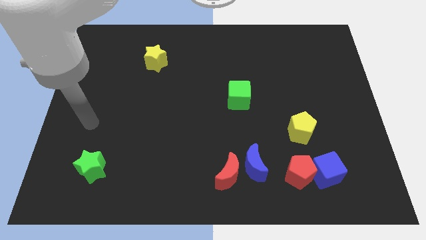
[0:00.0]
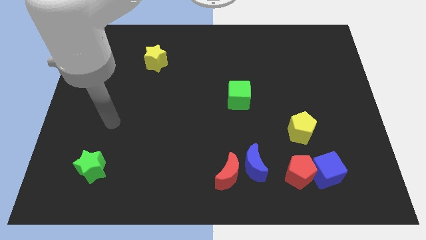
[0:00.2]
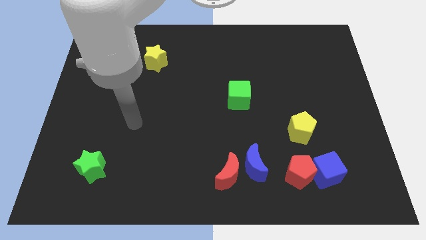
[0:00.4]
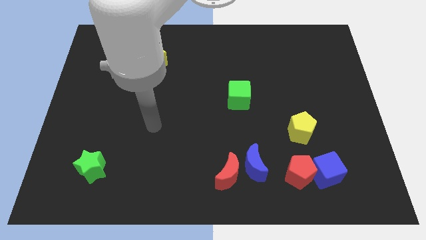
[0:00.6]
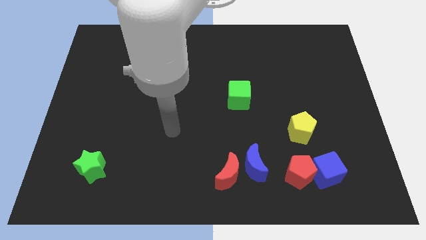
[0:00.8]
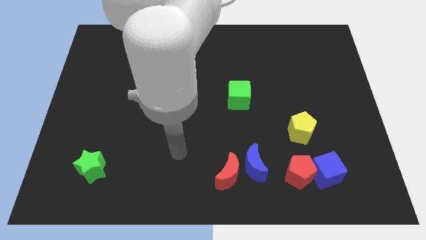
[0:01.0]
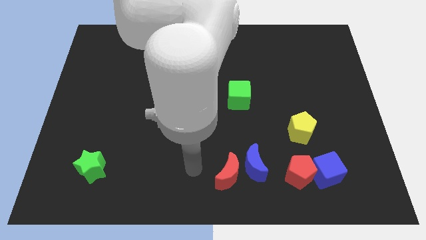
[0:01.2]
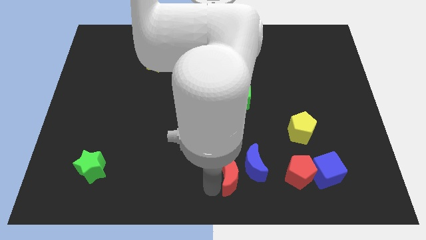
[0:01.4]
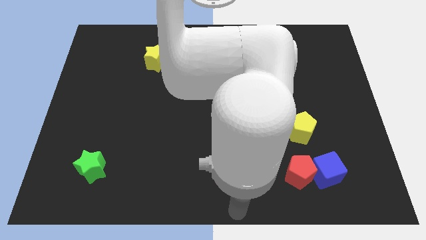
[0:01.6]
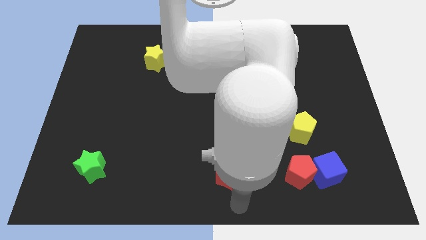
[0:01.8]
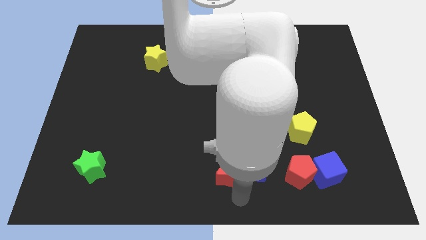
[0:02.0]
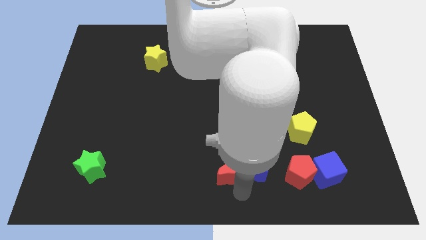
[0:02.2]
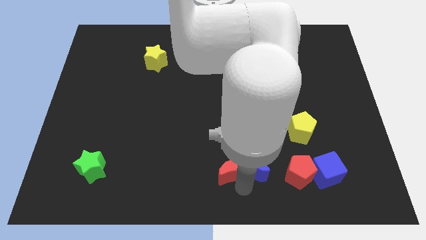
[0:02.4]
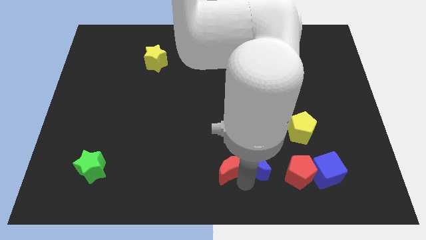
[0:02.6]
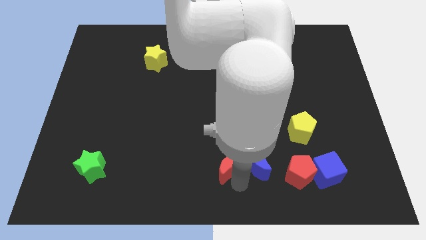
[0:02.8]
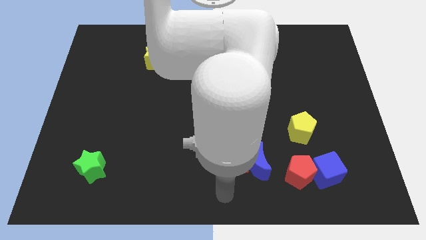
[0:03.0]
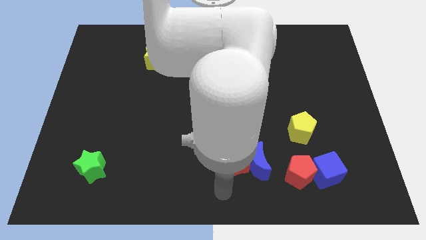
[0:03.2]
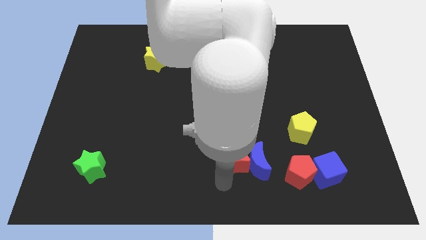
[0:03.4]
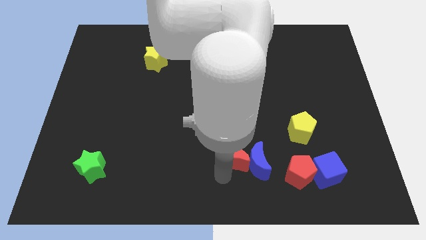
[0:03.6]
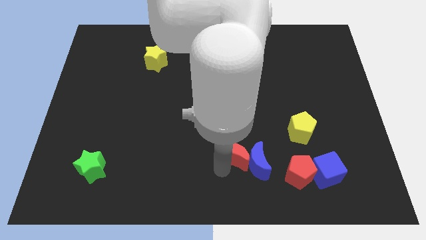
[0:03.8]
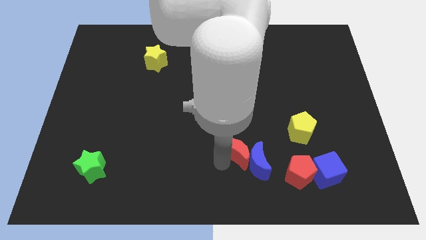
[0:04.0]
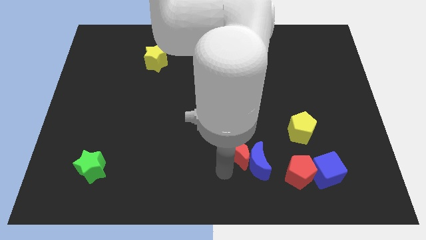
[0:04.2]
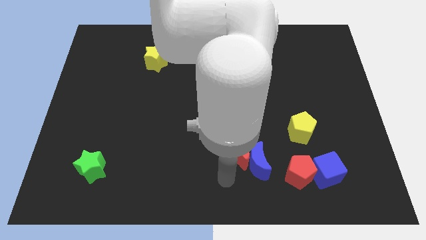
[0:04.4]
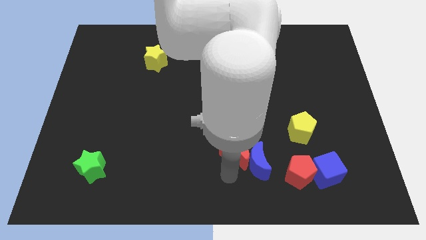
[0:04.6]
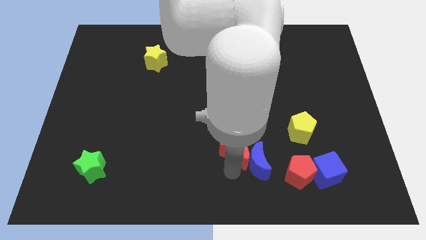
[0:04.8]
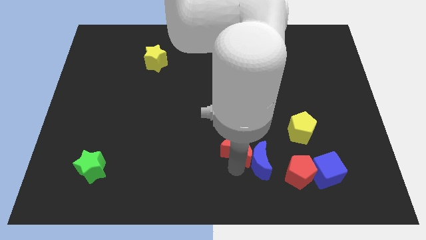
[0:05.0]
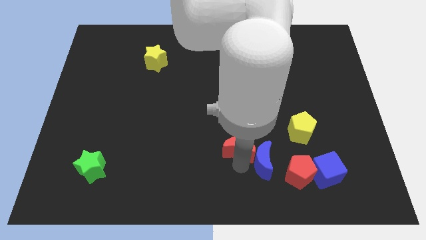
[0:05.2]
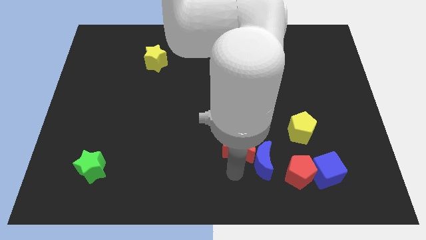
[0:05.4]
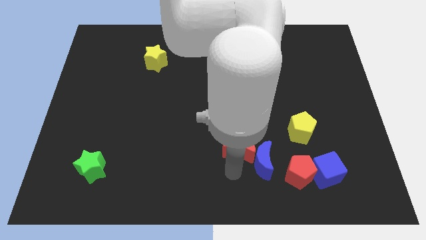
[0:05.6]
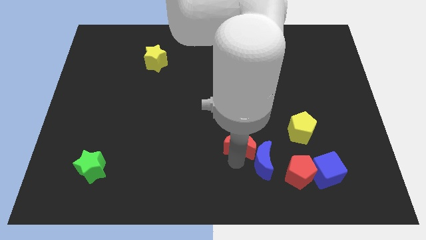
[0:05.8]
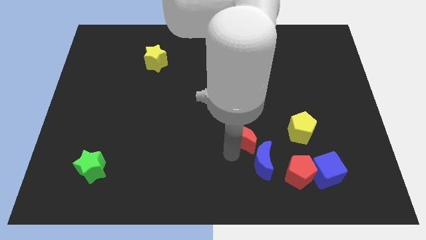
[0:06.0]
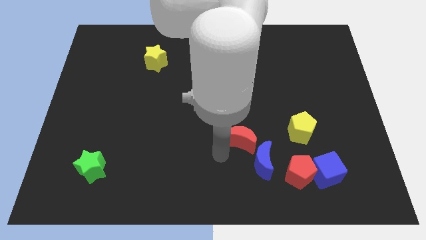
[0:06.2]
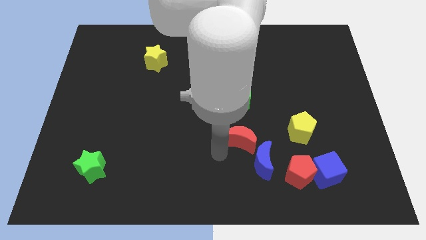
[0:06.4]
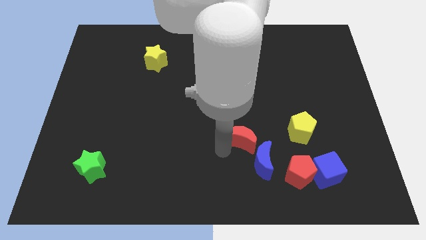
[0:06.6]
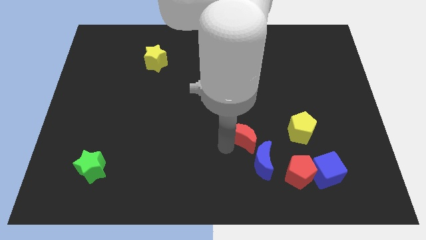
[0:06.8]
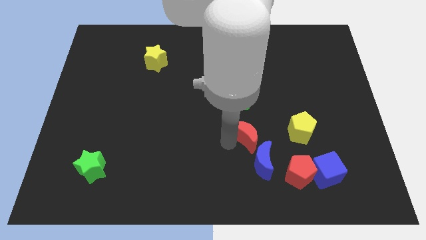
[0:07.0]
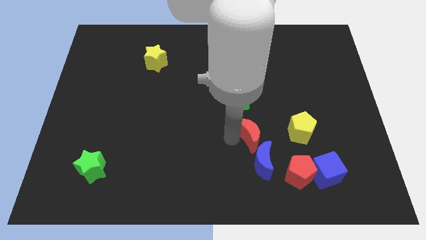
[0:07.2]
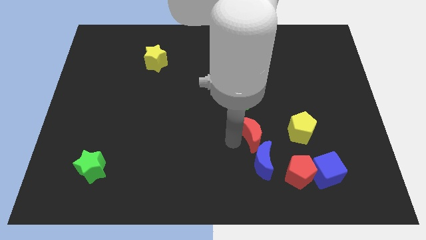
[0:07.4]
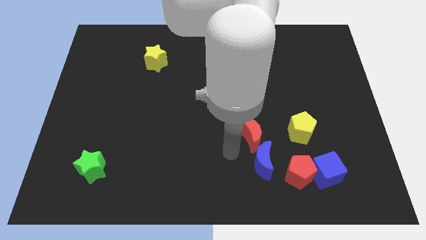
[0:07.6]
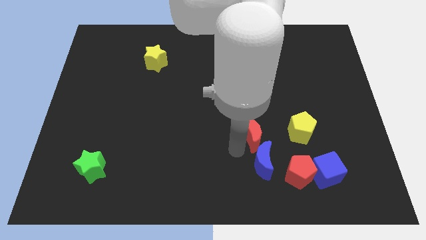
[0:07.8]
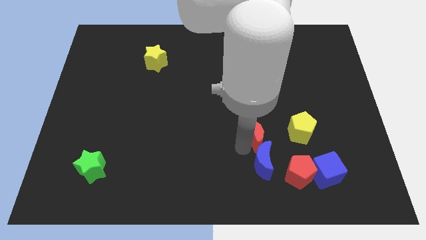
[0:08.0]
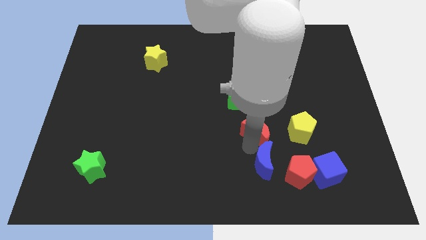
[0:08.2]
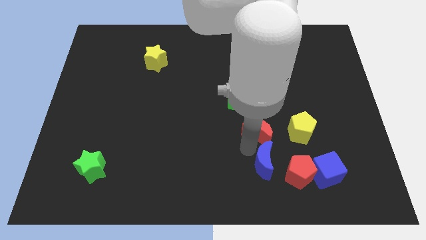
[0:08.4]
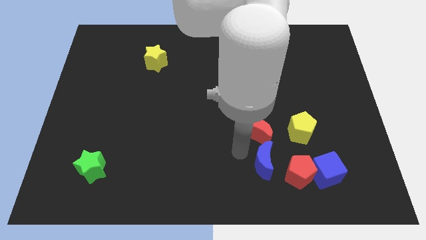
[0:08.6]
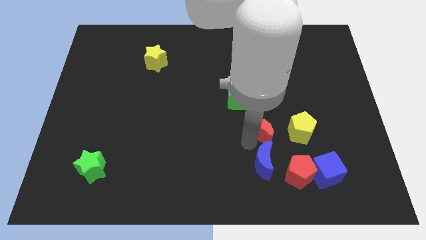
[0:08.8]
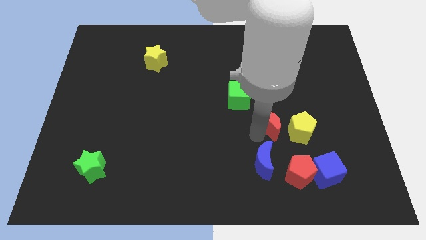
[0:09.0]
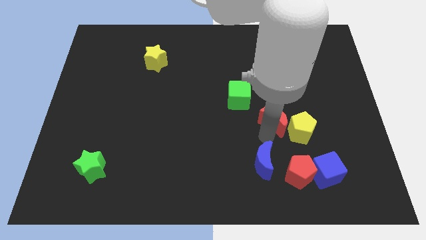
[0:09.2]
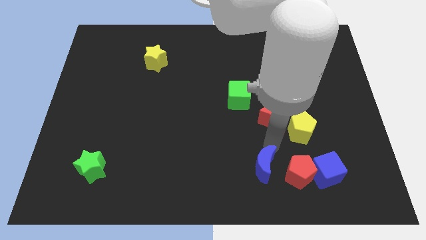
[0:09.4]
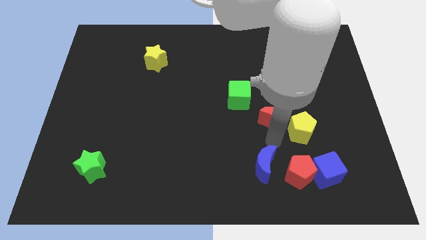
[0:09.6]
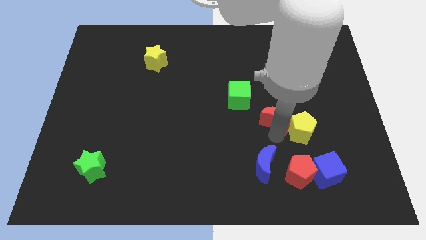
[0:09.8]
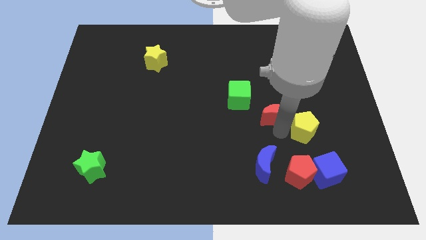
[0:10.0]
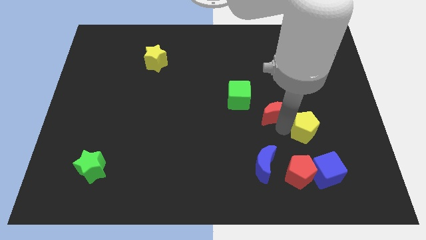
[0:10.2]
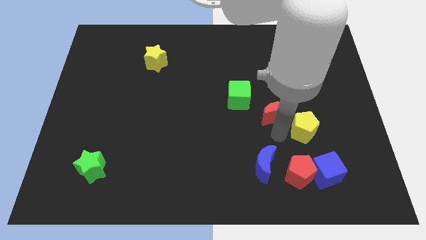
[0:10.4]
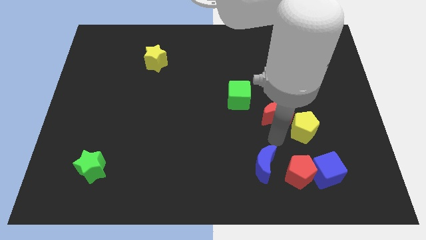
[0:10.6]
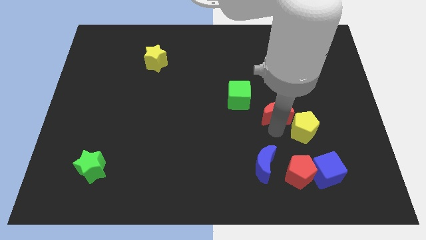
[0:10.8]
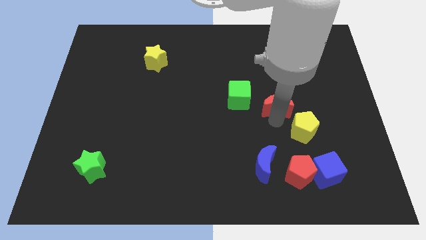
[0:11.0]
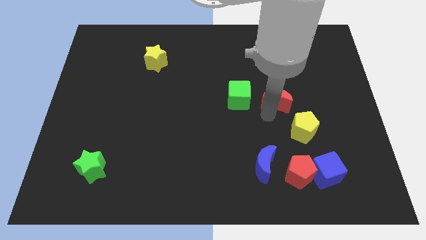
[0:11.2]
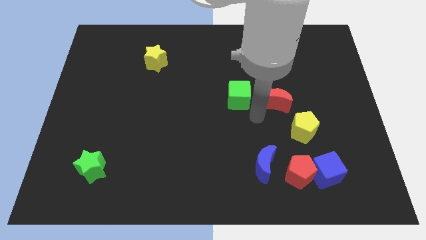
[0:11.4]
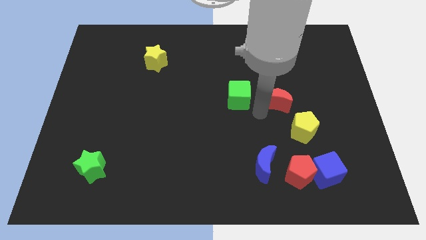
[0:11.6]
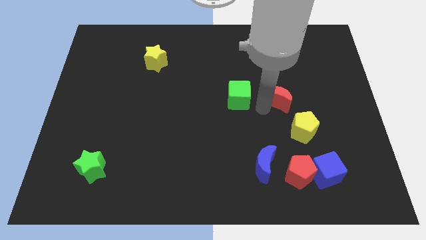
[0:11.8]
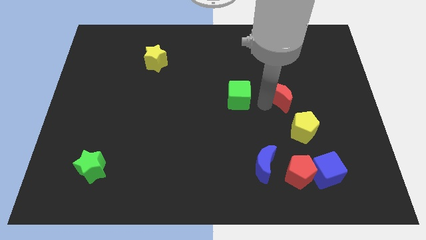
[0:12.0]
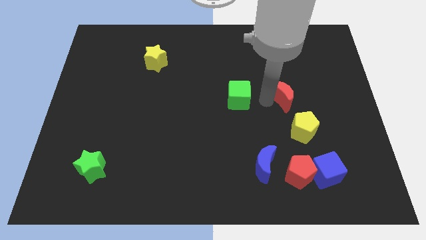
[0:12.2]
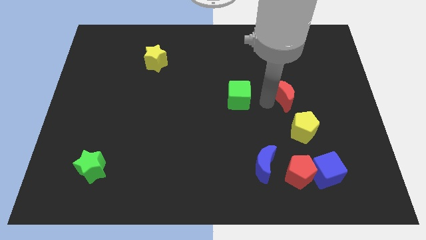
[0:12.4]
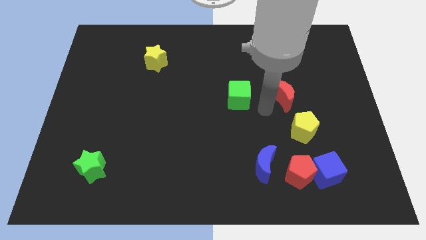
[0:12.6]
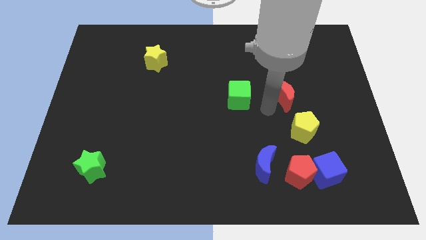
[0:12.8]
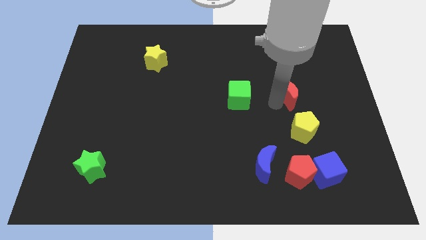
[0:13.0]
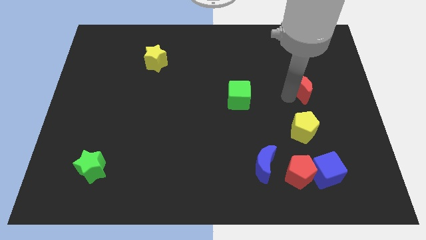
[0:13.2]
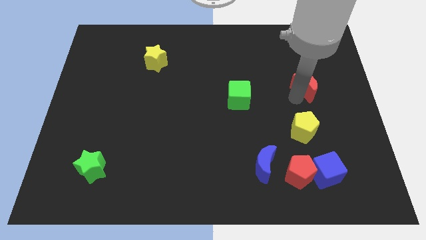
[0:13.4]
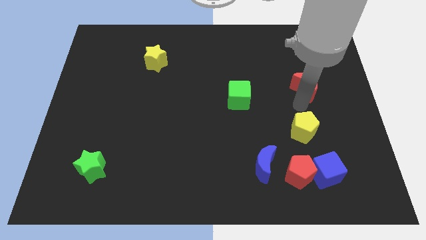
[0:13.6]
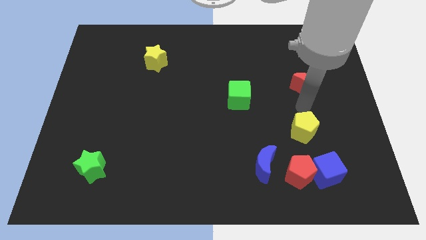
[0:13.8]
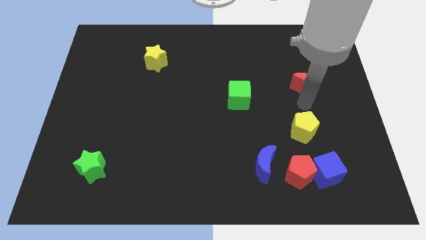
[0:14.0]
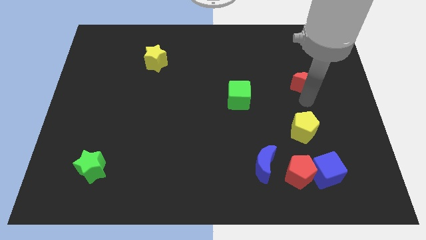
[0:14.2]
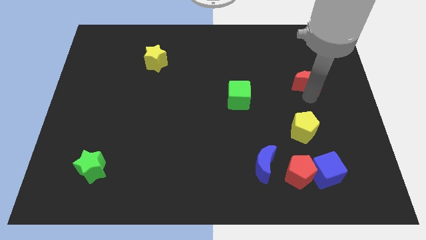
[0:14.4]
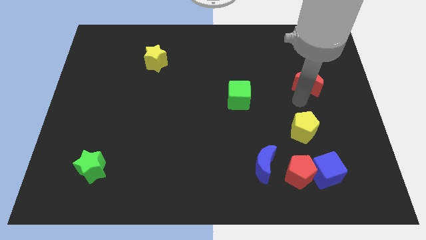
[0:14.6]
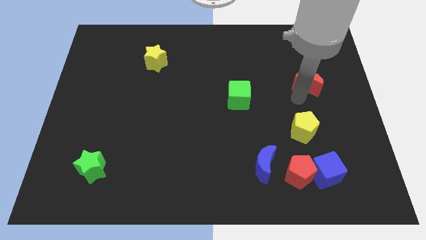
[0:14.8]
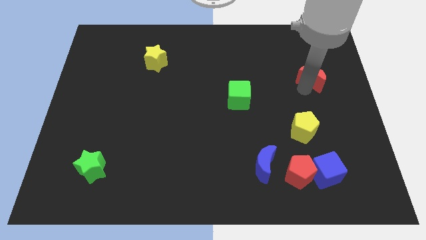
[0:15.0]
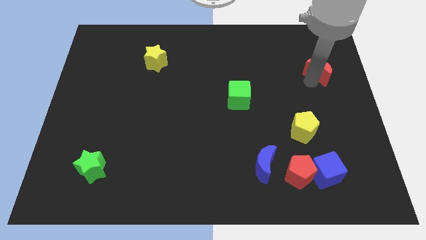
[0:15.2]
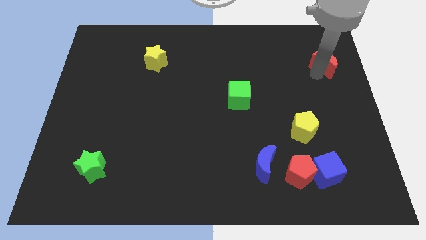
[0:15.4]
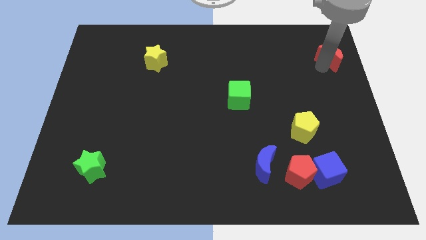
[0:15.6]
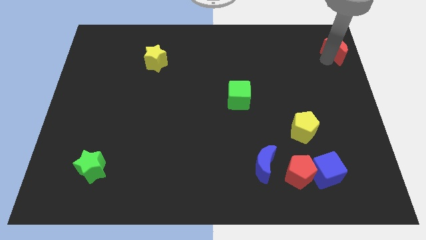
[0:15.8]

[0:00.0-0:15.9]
push the red moon to the top right corner
